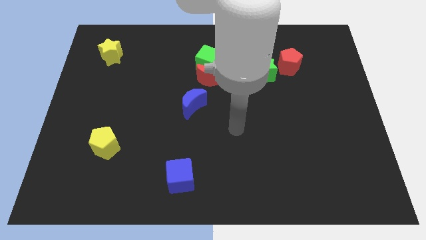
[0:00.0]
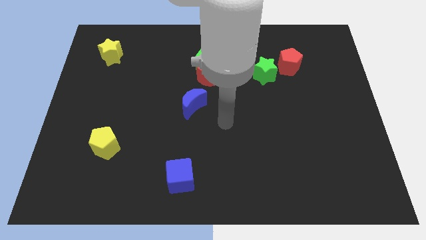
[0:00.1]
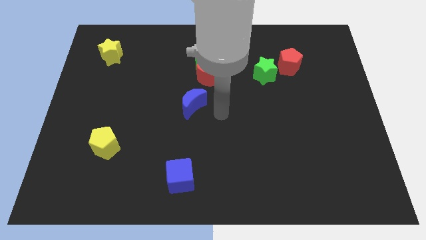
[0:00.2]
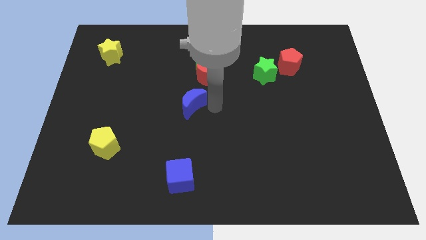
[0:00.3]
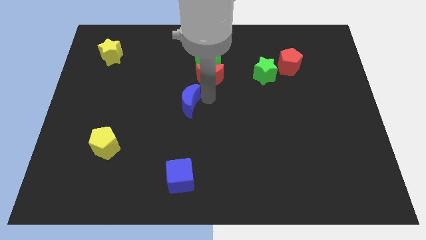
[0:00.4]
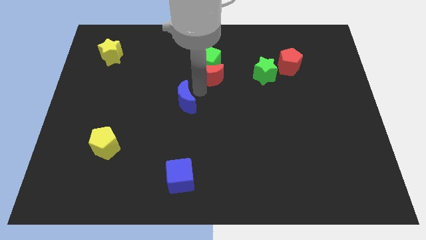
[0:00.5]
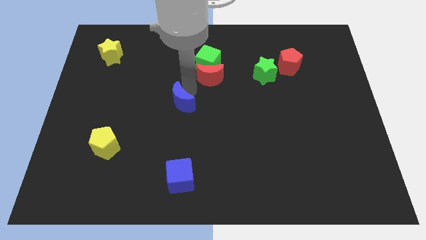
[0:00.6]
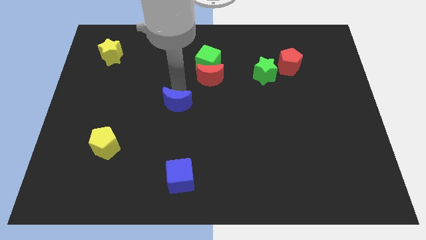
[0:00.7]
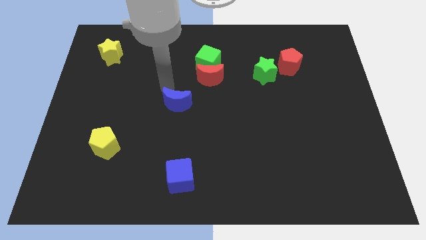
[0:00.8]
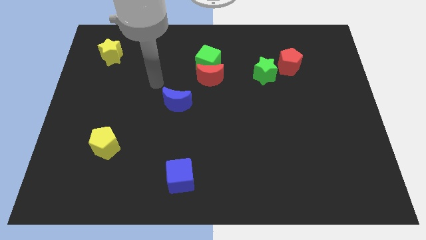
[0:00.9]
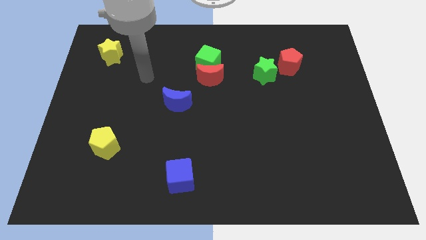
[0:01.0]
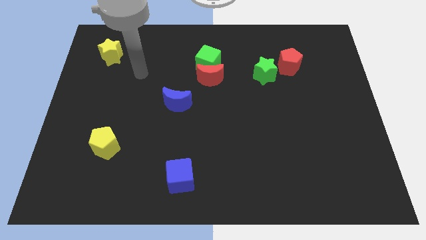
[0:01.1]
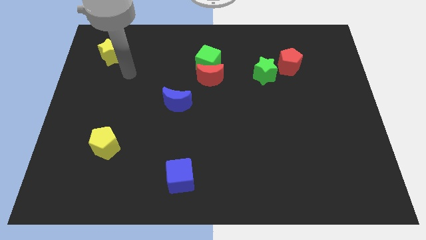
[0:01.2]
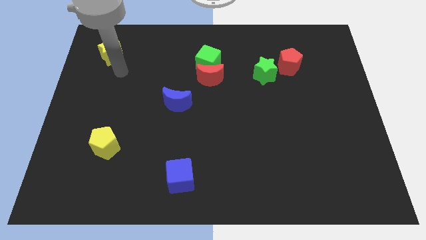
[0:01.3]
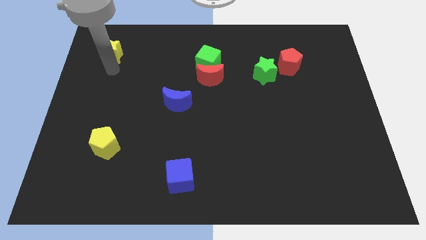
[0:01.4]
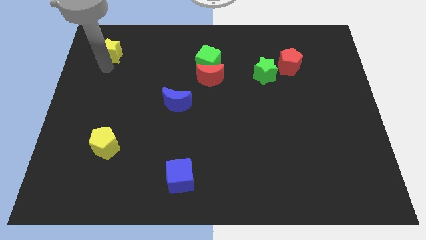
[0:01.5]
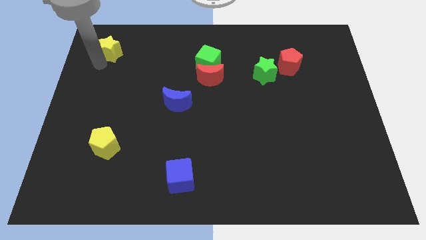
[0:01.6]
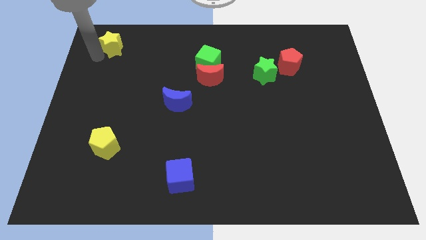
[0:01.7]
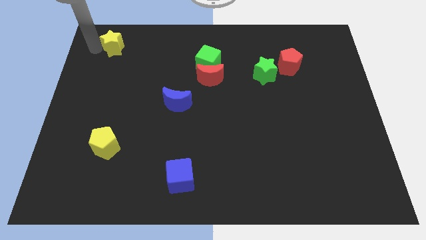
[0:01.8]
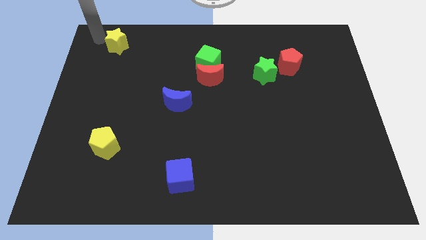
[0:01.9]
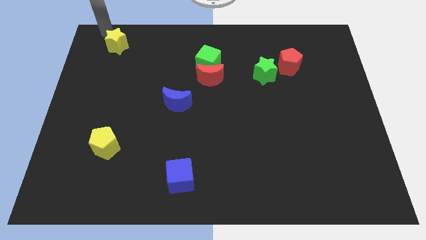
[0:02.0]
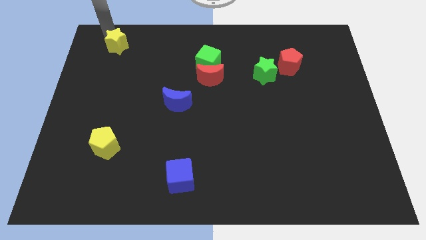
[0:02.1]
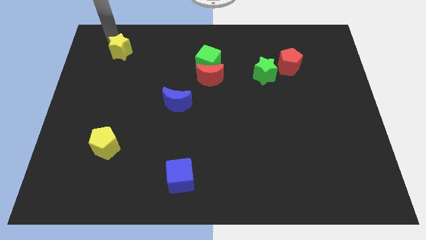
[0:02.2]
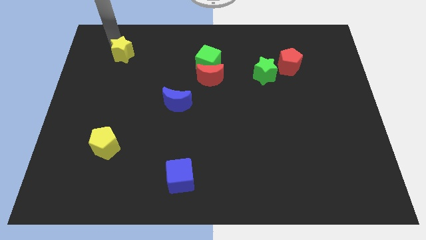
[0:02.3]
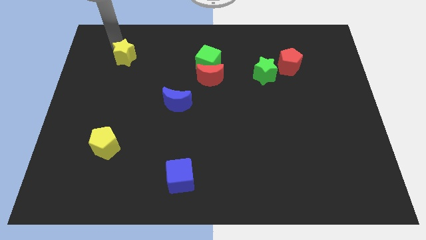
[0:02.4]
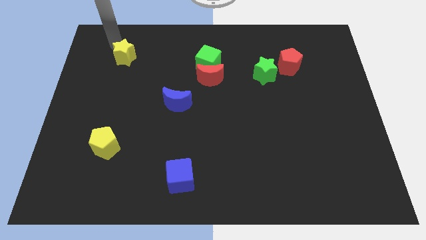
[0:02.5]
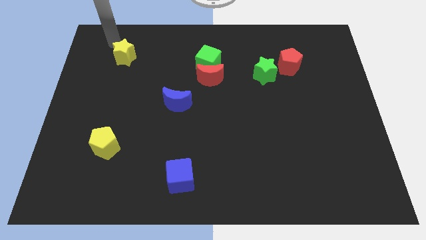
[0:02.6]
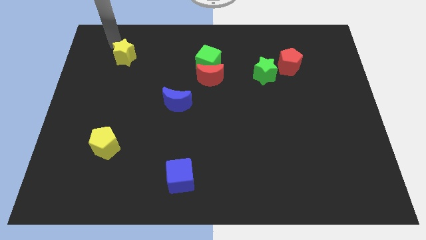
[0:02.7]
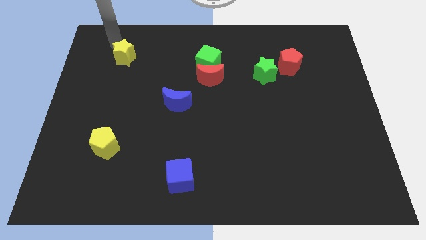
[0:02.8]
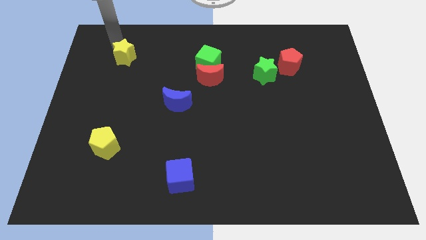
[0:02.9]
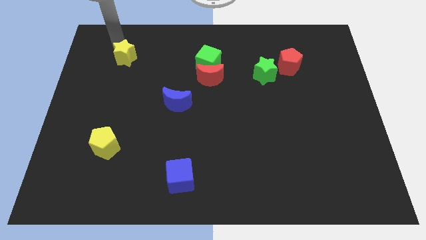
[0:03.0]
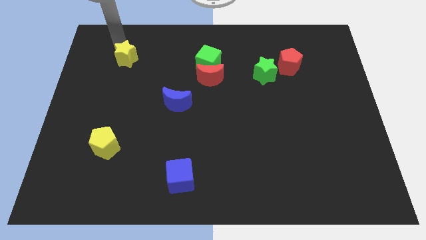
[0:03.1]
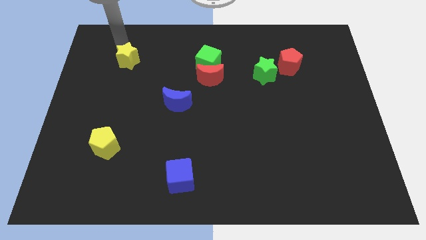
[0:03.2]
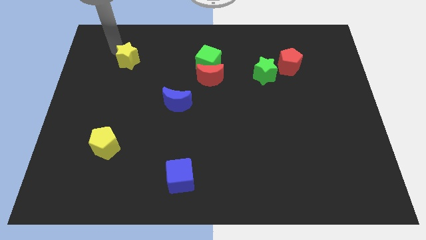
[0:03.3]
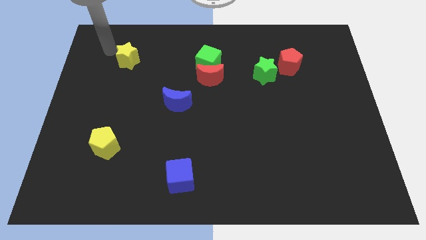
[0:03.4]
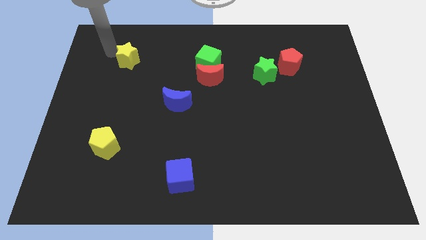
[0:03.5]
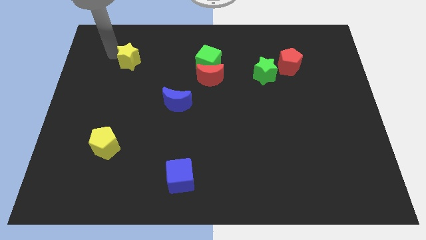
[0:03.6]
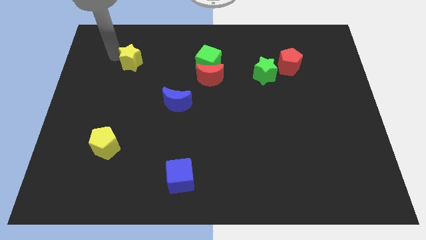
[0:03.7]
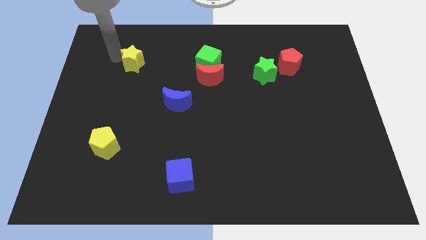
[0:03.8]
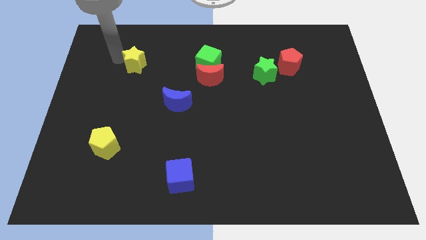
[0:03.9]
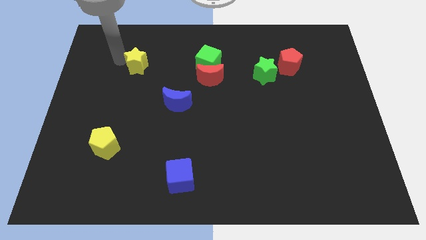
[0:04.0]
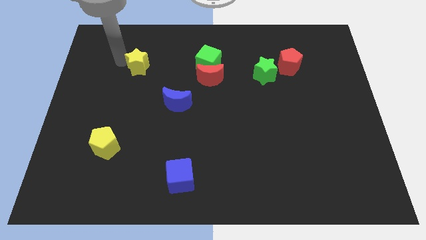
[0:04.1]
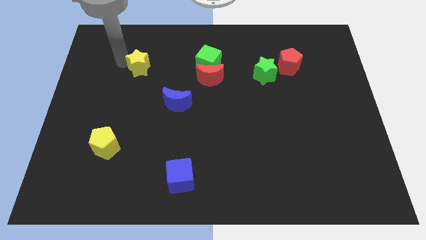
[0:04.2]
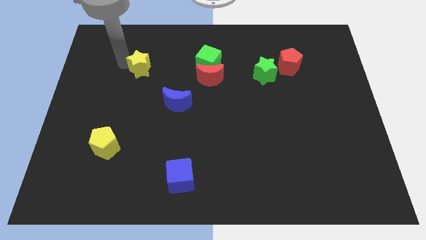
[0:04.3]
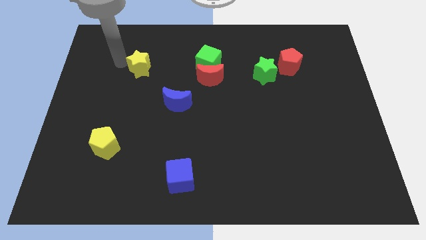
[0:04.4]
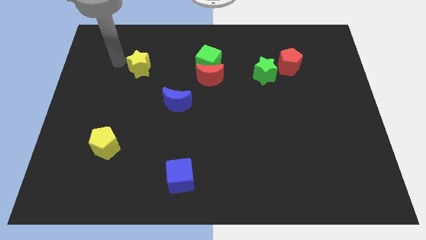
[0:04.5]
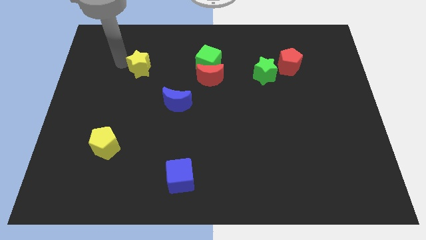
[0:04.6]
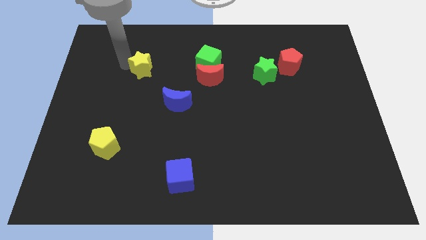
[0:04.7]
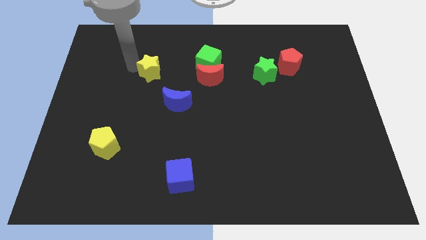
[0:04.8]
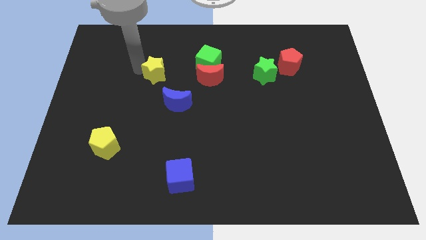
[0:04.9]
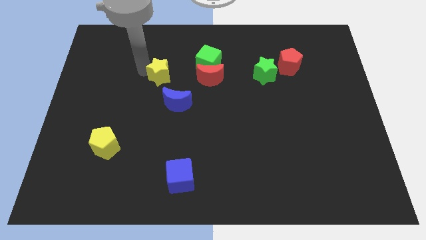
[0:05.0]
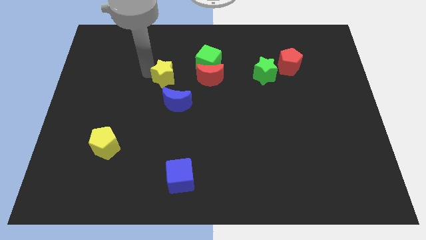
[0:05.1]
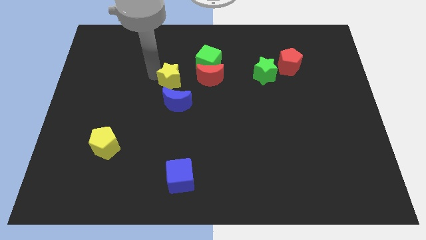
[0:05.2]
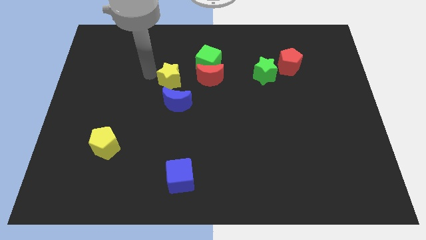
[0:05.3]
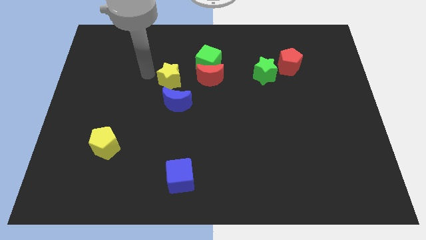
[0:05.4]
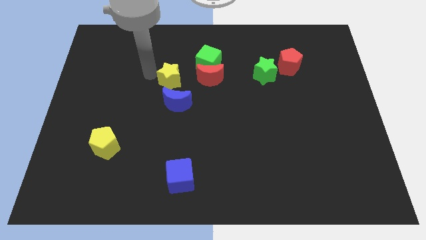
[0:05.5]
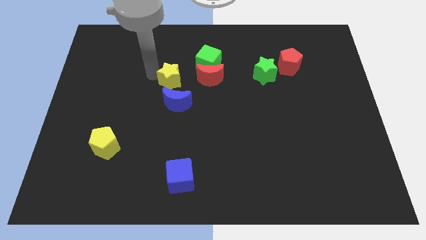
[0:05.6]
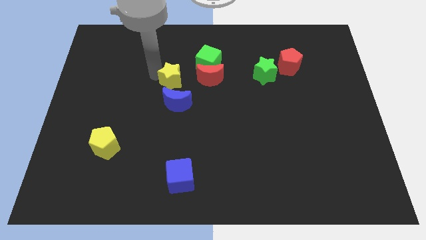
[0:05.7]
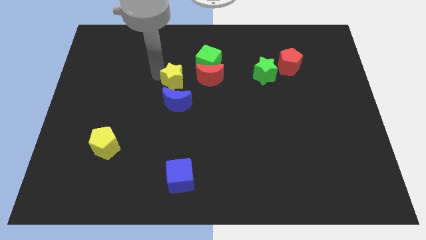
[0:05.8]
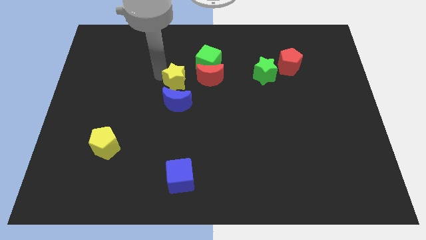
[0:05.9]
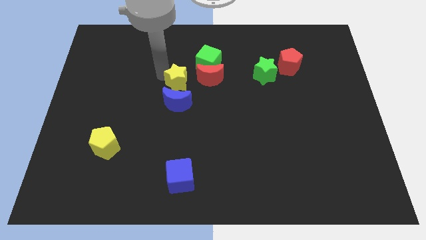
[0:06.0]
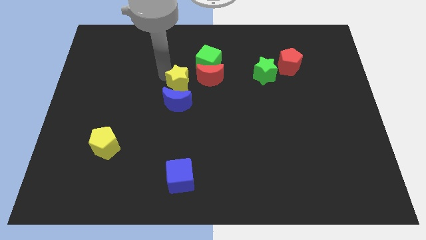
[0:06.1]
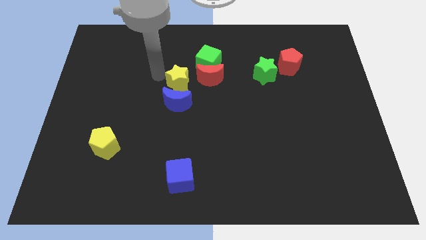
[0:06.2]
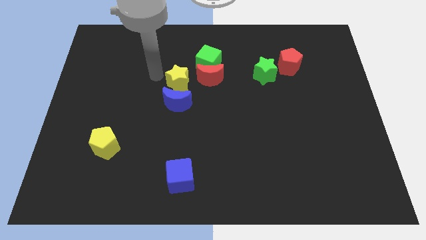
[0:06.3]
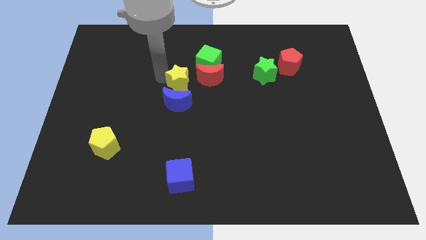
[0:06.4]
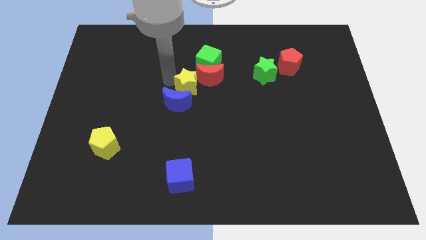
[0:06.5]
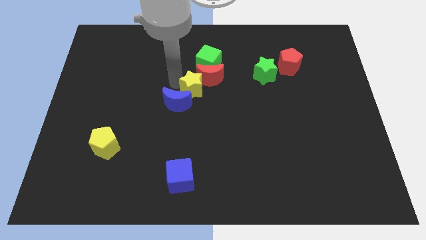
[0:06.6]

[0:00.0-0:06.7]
slide the yellow star below the green cube
